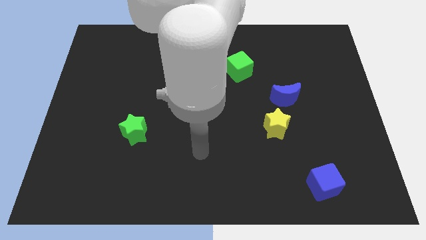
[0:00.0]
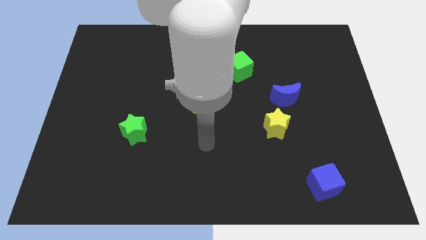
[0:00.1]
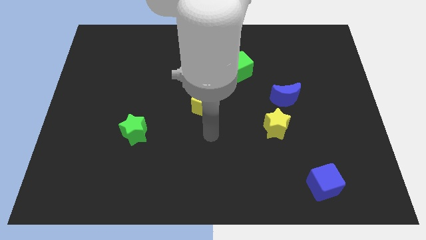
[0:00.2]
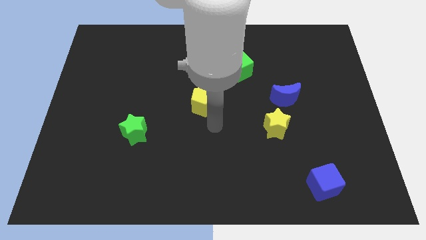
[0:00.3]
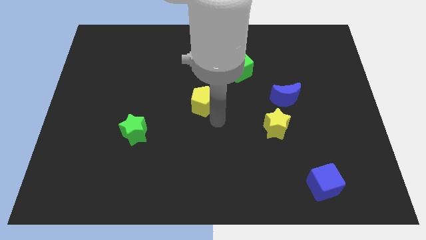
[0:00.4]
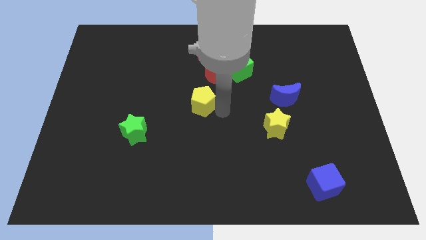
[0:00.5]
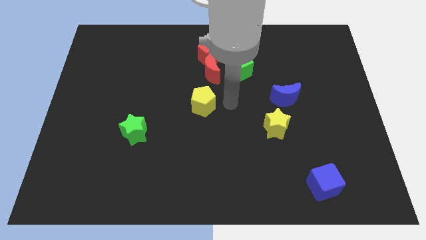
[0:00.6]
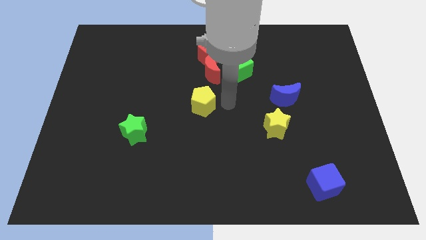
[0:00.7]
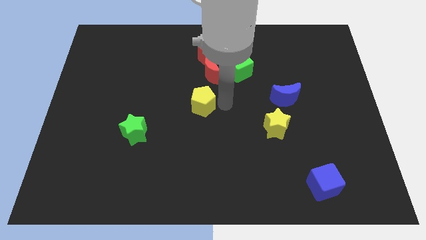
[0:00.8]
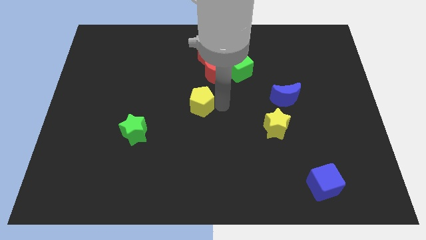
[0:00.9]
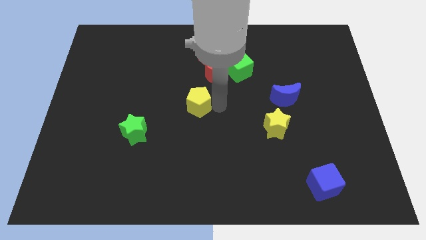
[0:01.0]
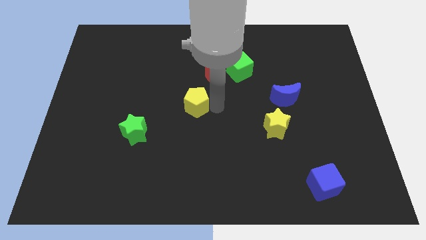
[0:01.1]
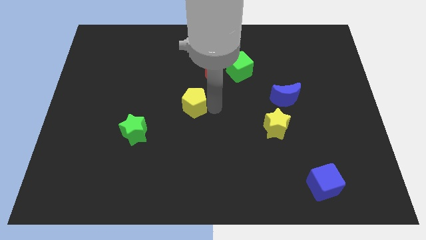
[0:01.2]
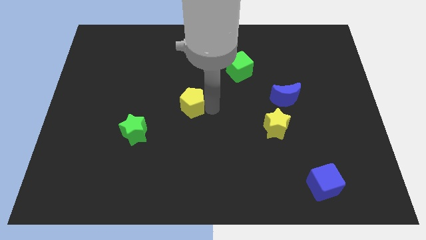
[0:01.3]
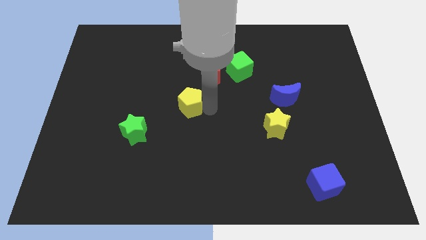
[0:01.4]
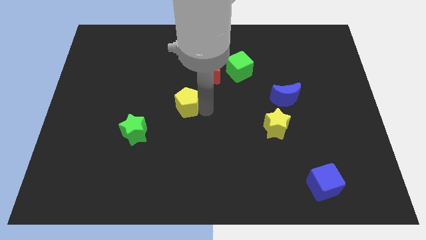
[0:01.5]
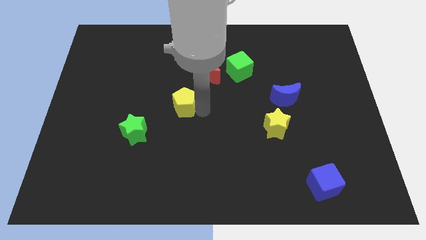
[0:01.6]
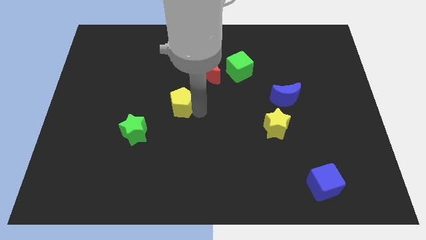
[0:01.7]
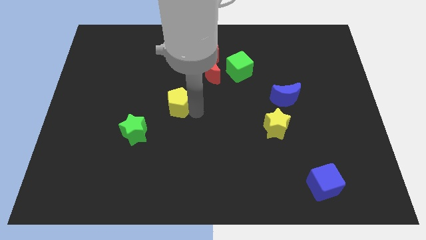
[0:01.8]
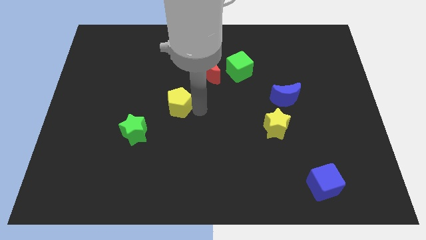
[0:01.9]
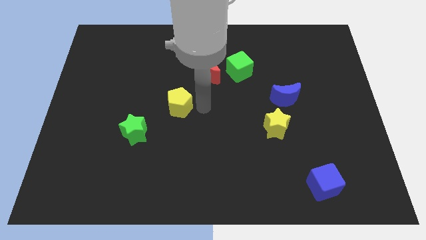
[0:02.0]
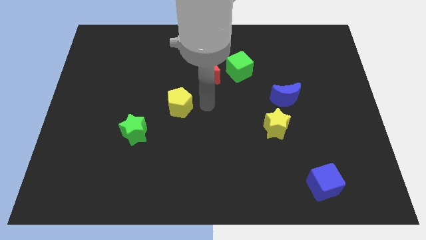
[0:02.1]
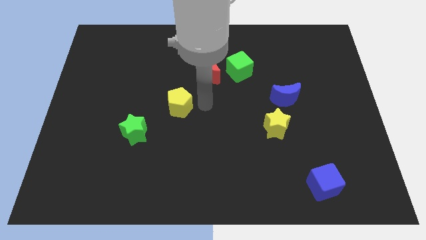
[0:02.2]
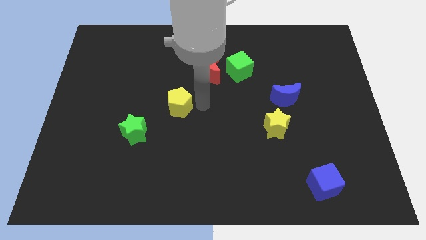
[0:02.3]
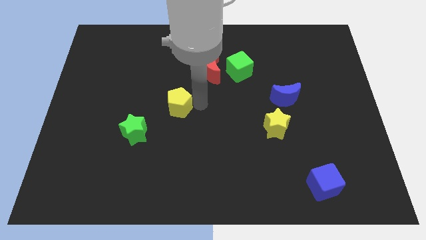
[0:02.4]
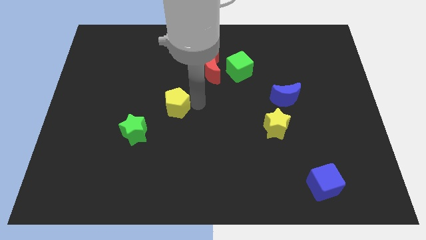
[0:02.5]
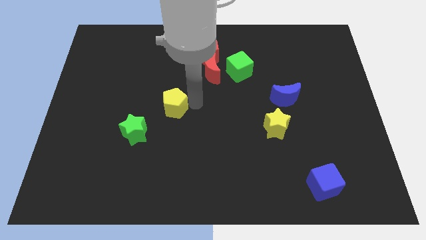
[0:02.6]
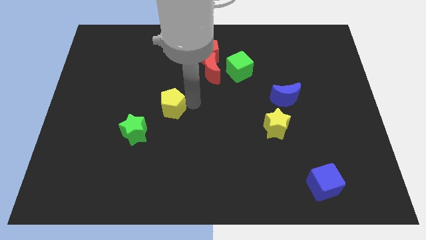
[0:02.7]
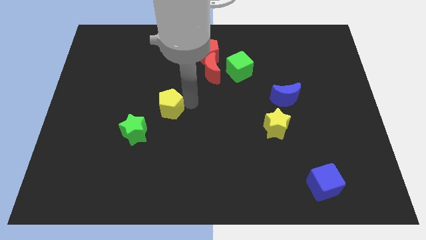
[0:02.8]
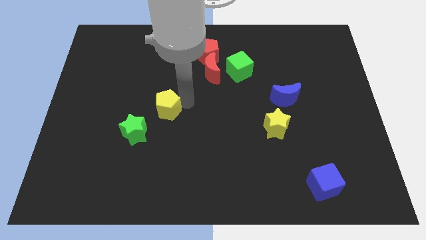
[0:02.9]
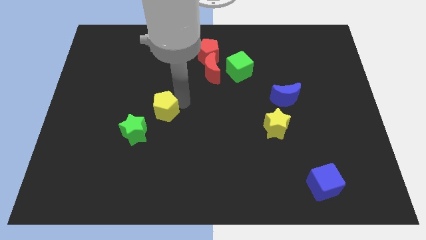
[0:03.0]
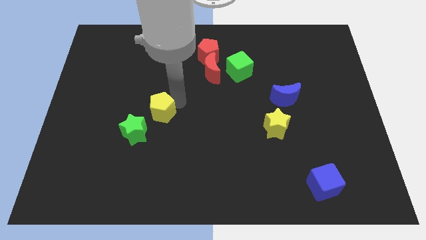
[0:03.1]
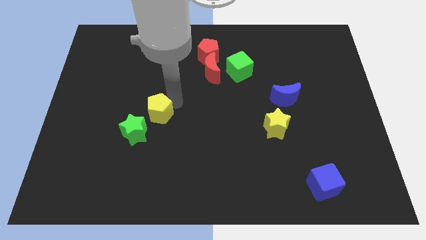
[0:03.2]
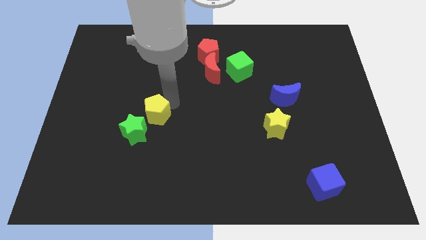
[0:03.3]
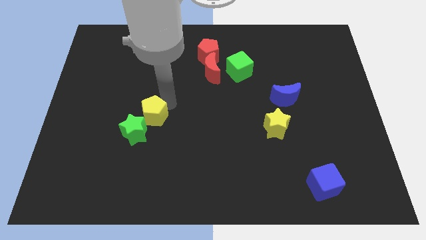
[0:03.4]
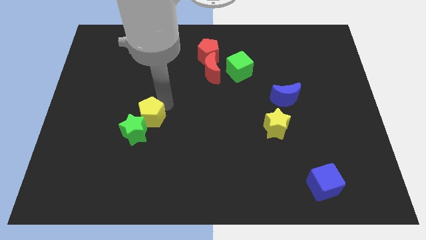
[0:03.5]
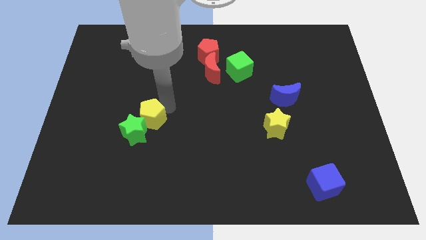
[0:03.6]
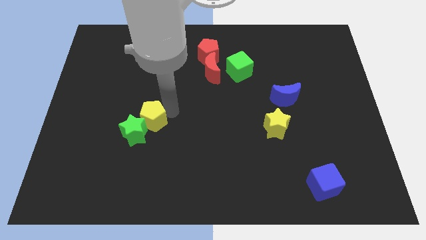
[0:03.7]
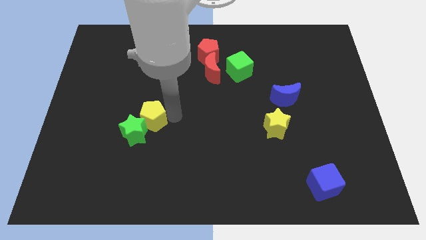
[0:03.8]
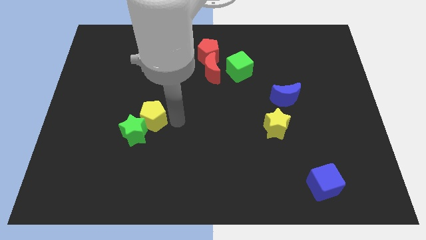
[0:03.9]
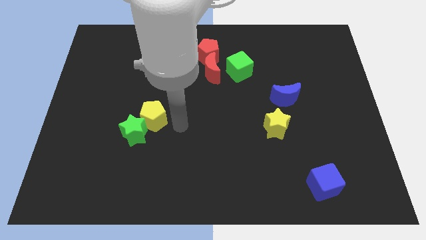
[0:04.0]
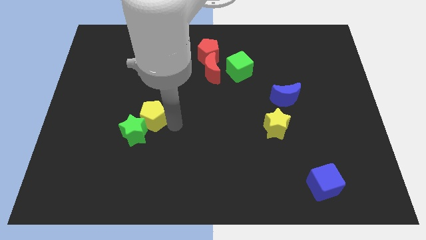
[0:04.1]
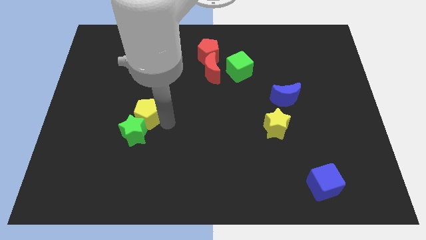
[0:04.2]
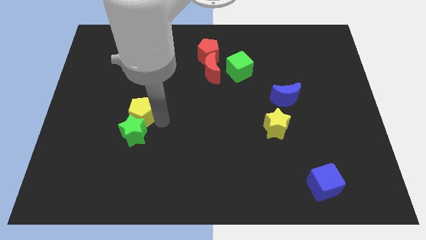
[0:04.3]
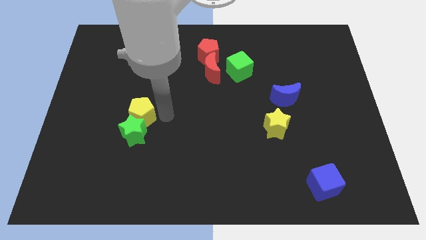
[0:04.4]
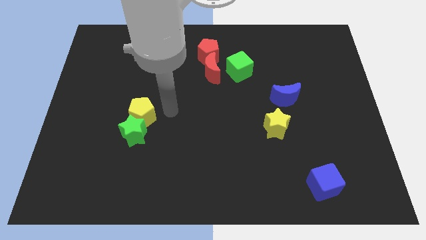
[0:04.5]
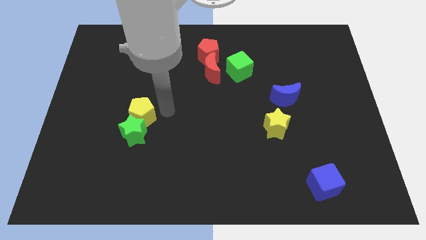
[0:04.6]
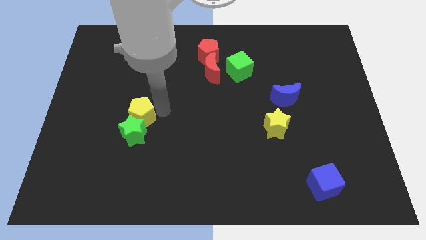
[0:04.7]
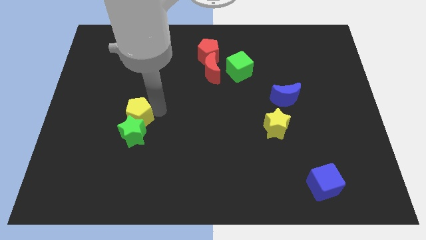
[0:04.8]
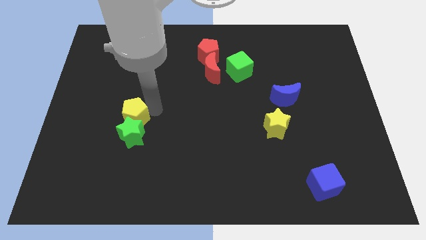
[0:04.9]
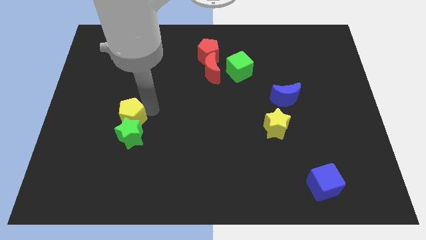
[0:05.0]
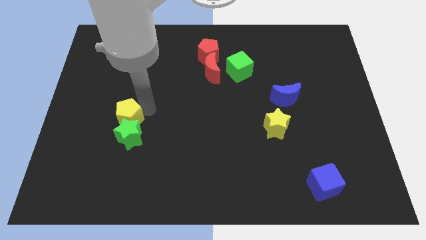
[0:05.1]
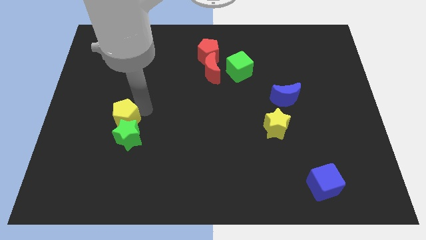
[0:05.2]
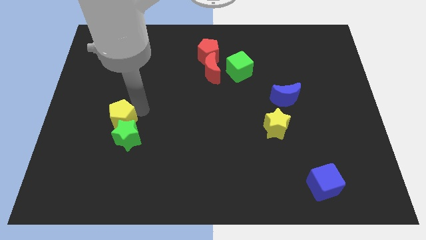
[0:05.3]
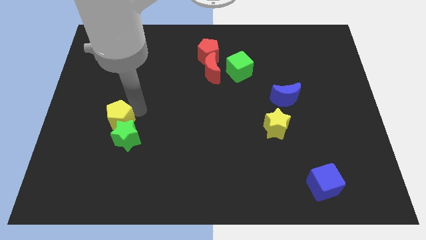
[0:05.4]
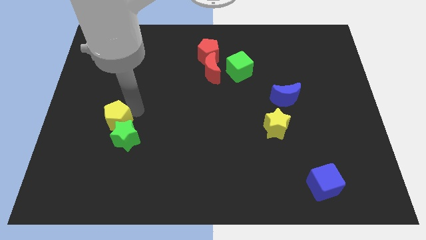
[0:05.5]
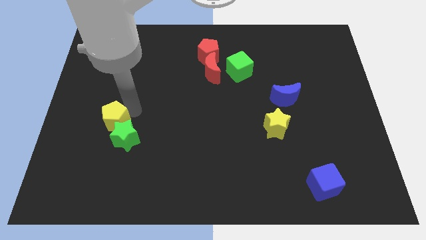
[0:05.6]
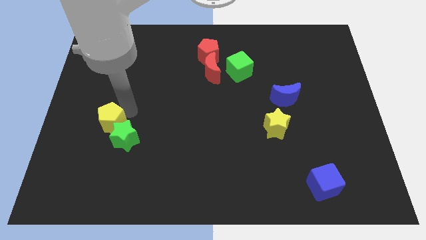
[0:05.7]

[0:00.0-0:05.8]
move the yellow pentagon to the left side of the green star

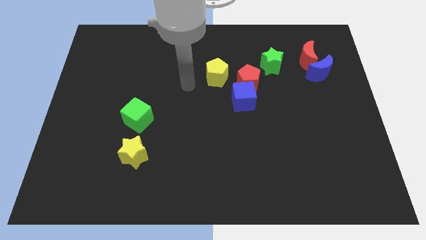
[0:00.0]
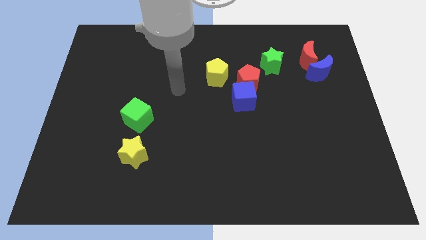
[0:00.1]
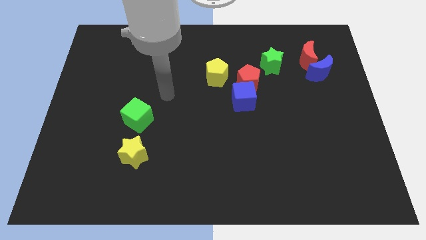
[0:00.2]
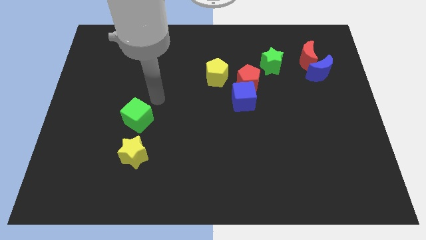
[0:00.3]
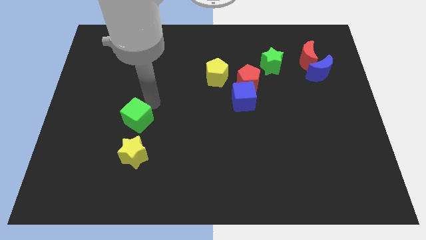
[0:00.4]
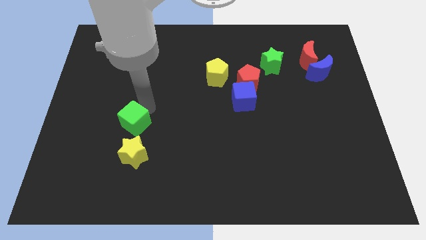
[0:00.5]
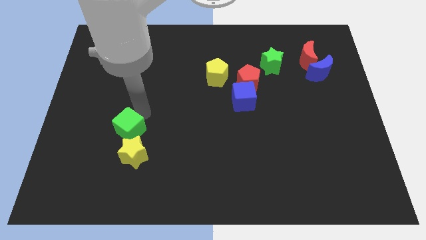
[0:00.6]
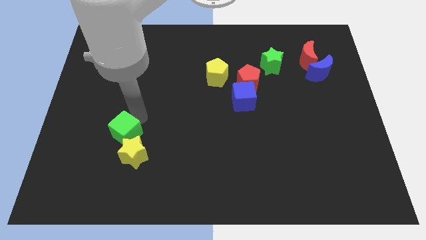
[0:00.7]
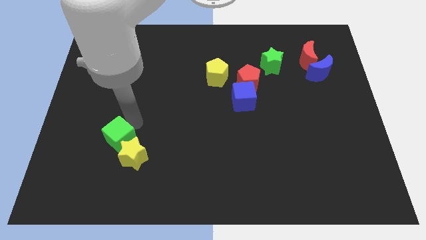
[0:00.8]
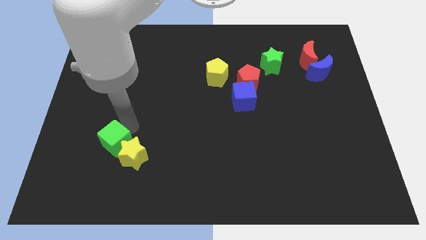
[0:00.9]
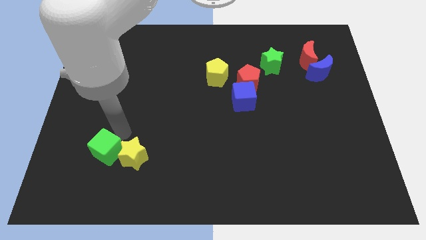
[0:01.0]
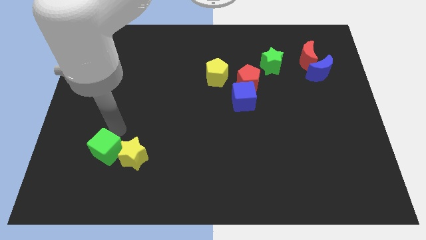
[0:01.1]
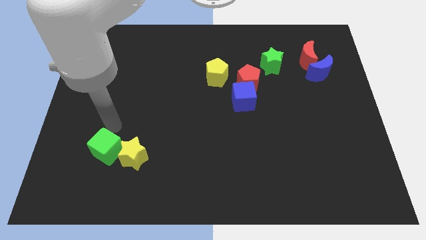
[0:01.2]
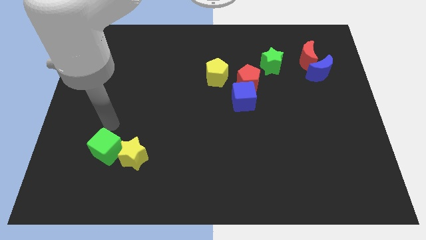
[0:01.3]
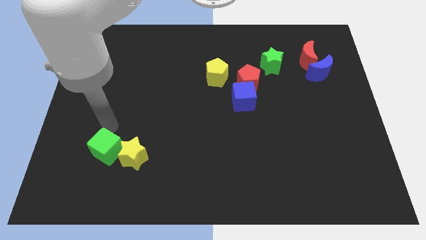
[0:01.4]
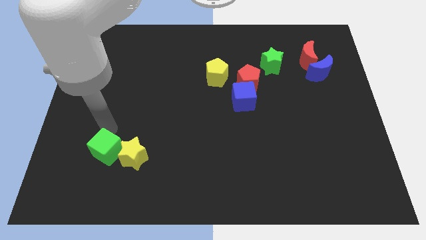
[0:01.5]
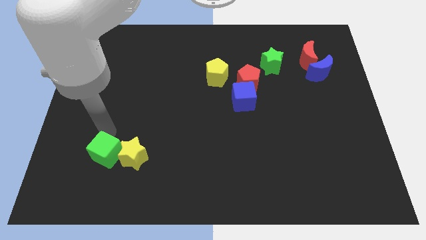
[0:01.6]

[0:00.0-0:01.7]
slide the green cube to the bottom left of the yellow star
